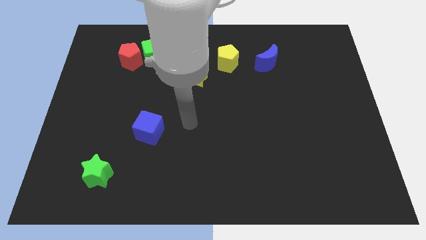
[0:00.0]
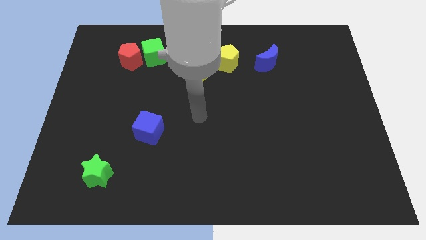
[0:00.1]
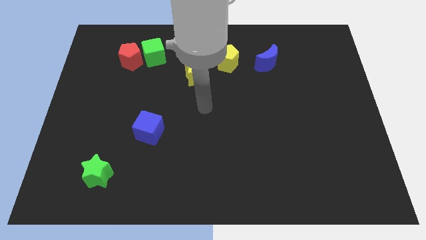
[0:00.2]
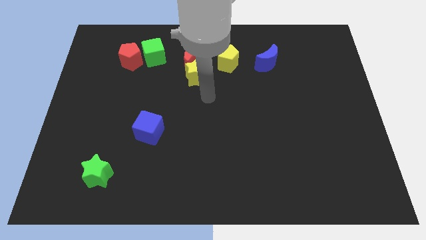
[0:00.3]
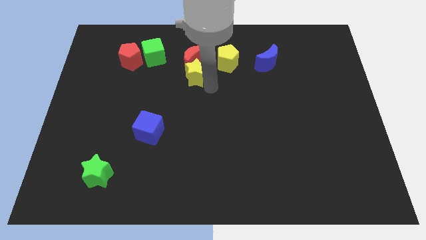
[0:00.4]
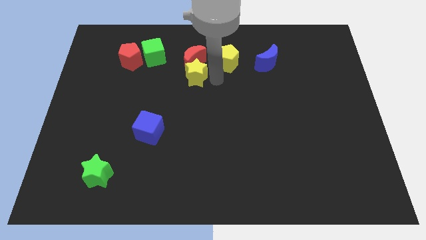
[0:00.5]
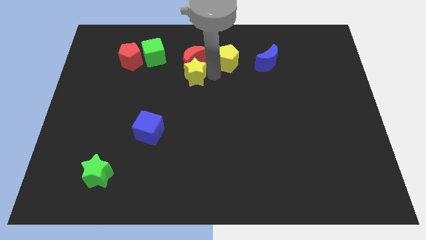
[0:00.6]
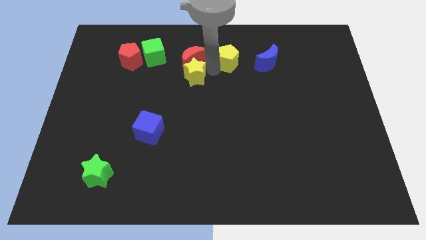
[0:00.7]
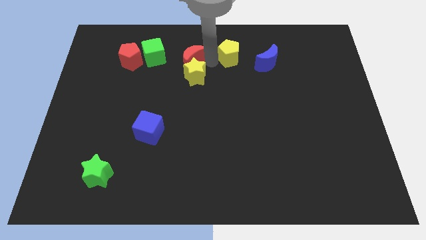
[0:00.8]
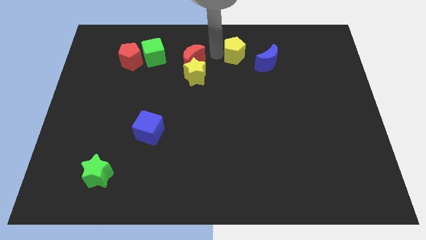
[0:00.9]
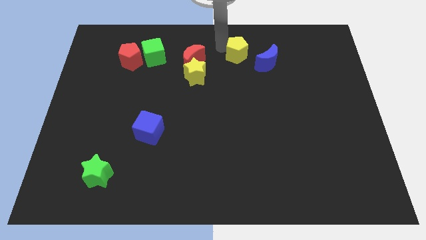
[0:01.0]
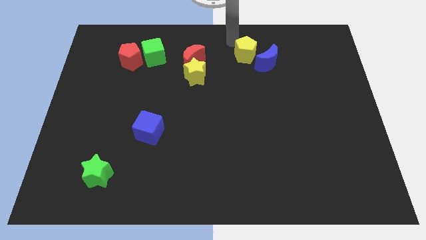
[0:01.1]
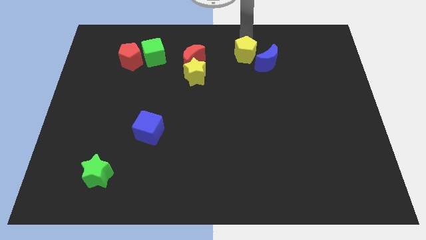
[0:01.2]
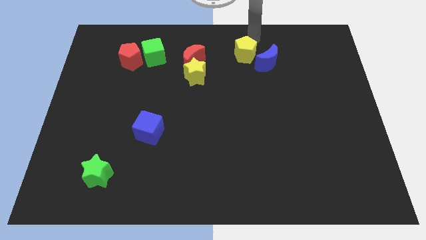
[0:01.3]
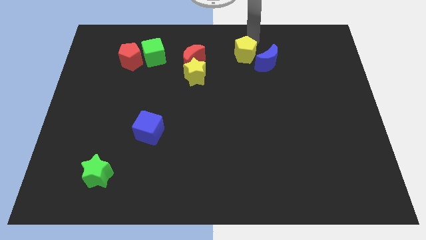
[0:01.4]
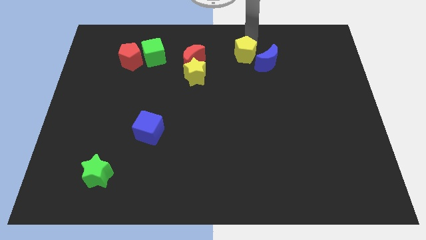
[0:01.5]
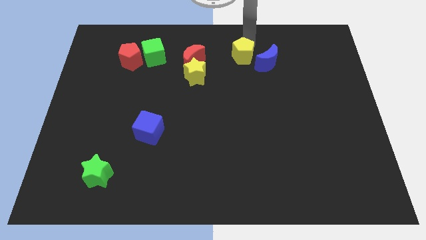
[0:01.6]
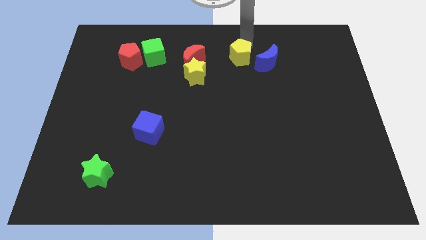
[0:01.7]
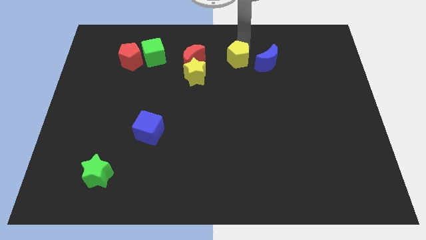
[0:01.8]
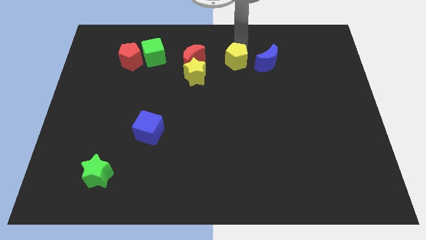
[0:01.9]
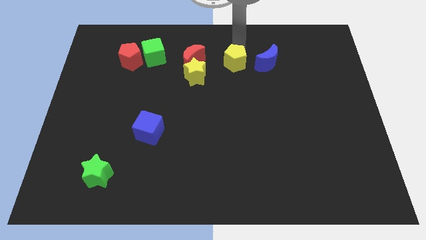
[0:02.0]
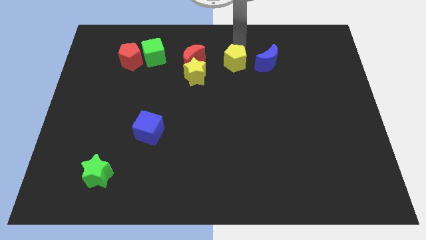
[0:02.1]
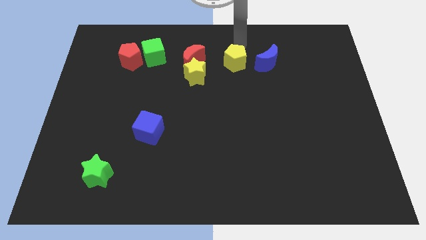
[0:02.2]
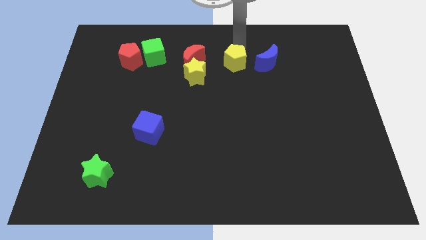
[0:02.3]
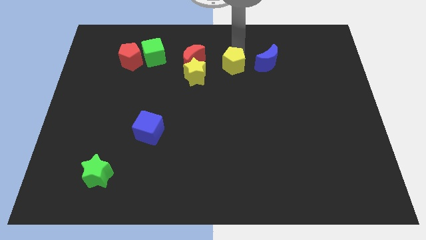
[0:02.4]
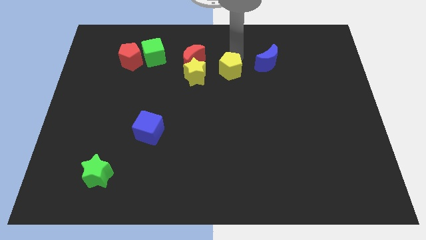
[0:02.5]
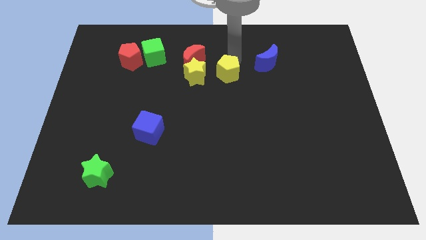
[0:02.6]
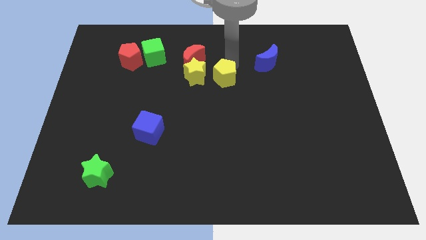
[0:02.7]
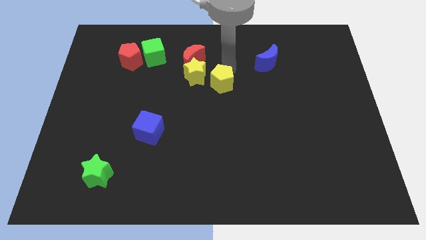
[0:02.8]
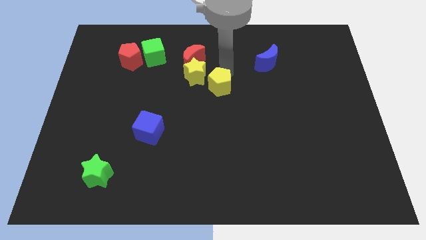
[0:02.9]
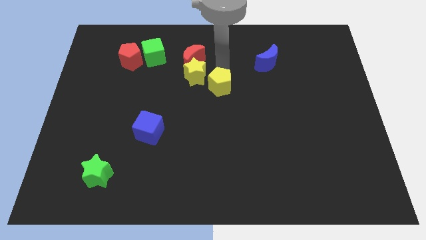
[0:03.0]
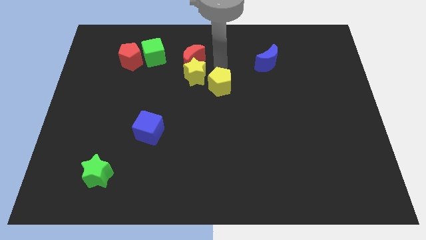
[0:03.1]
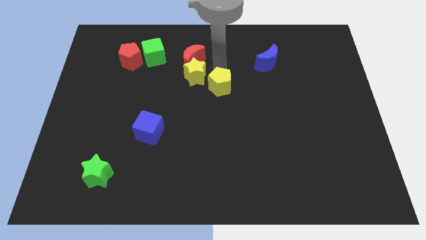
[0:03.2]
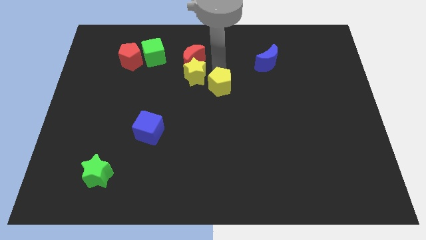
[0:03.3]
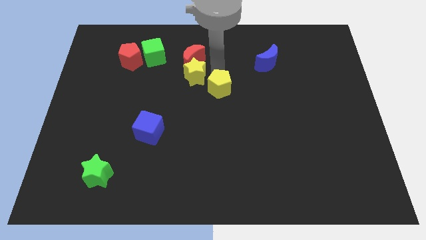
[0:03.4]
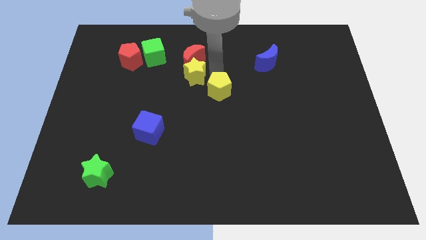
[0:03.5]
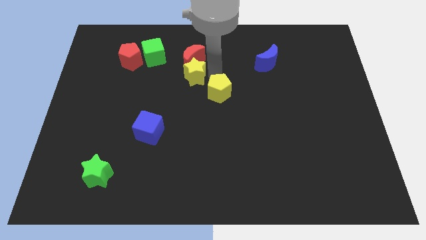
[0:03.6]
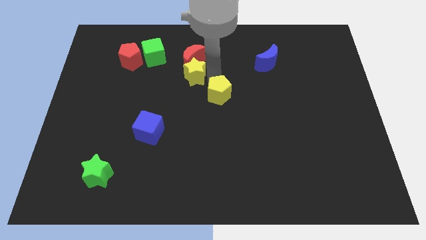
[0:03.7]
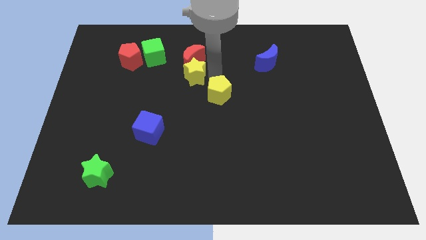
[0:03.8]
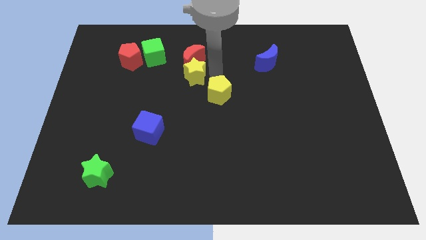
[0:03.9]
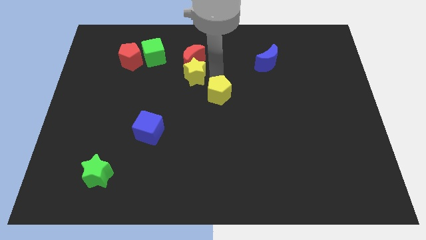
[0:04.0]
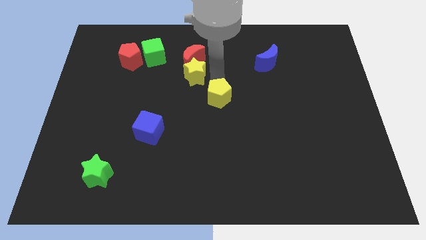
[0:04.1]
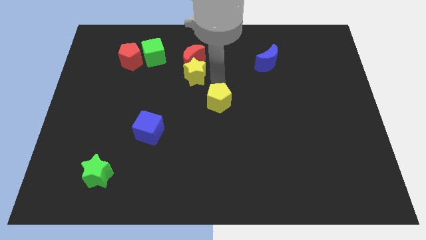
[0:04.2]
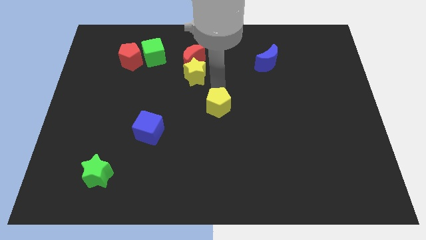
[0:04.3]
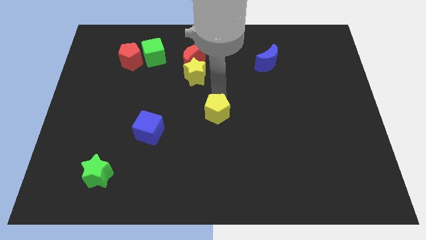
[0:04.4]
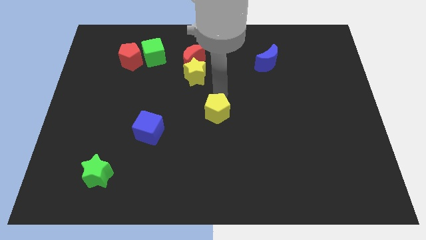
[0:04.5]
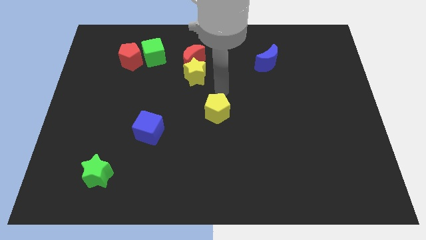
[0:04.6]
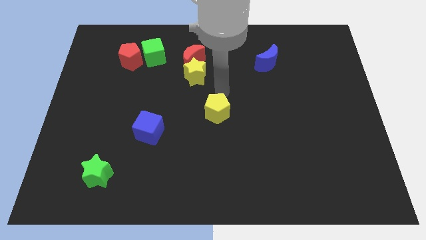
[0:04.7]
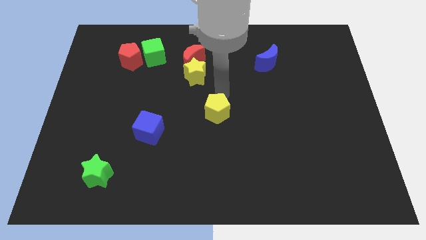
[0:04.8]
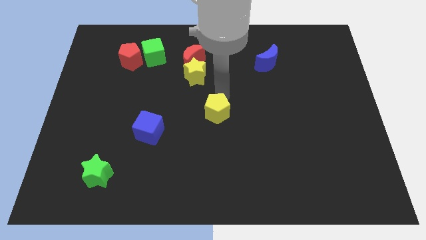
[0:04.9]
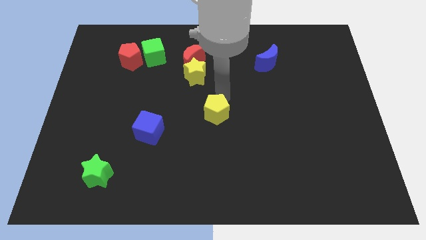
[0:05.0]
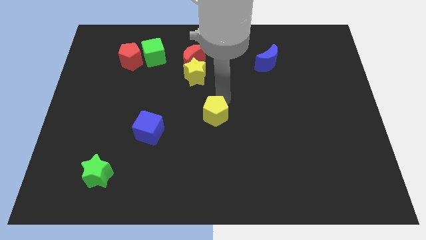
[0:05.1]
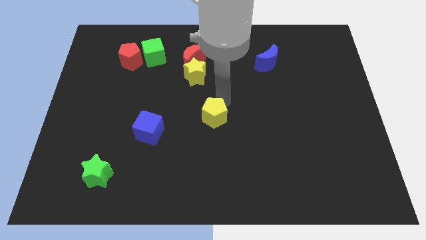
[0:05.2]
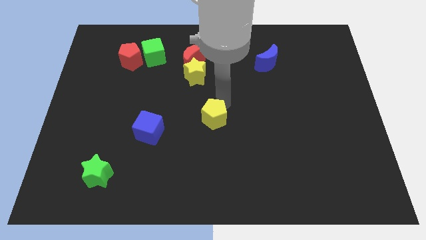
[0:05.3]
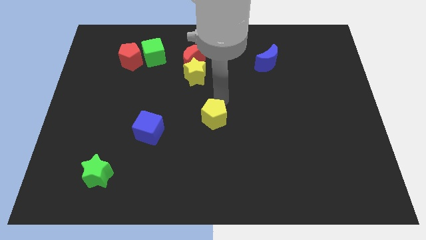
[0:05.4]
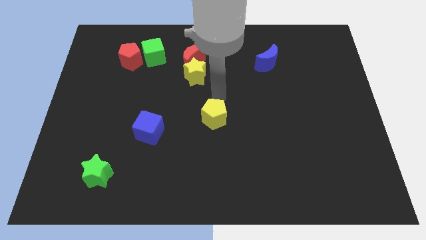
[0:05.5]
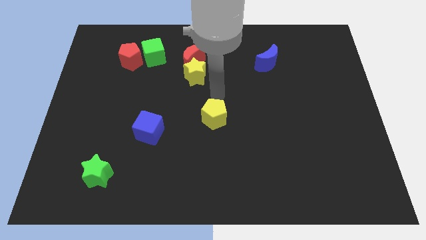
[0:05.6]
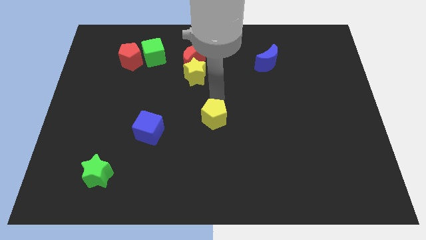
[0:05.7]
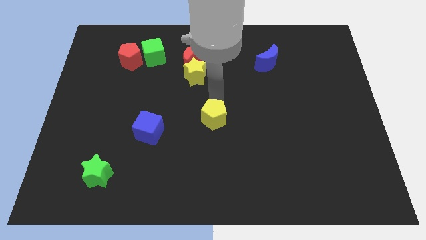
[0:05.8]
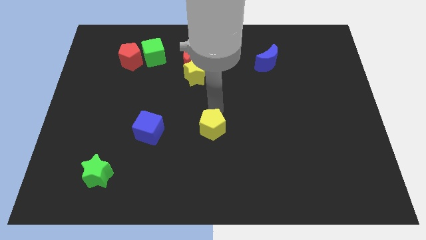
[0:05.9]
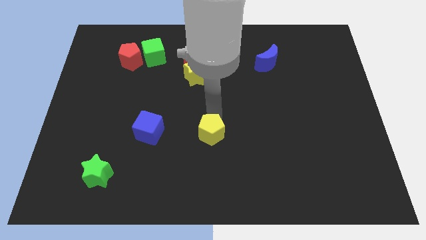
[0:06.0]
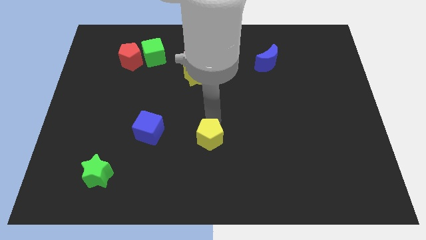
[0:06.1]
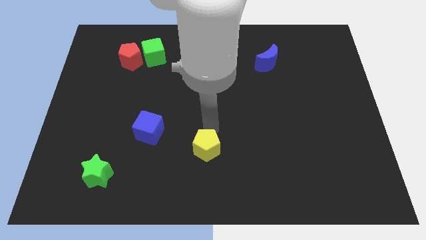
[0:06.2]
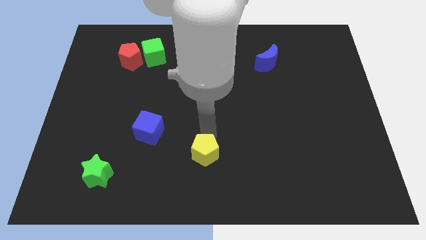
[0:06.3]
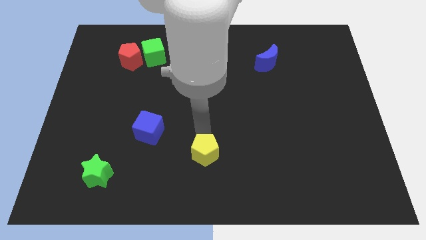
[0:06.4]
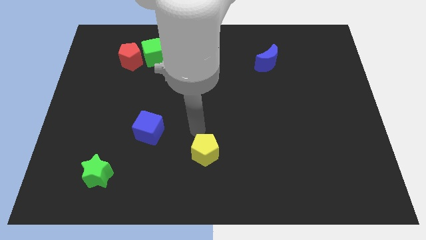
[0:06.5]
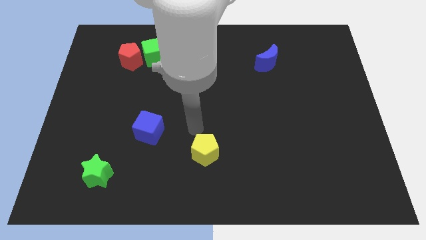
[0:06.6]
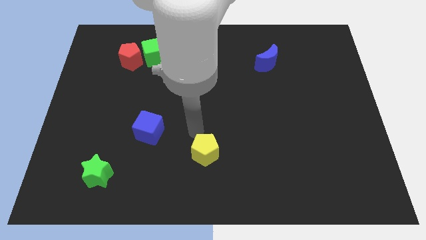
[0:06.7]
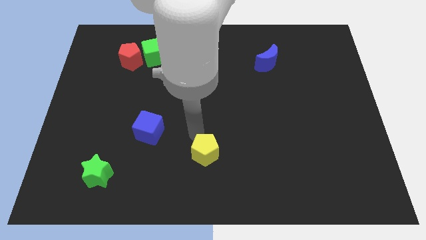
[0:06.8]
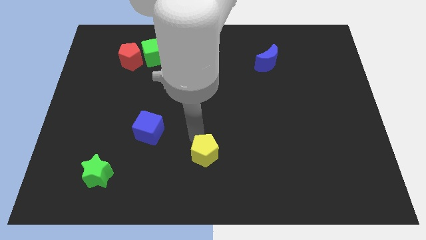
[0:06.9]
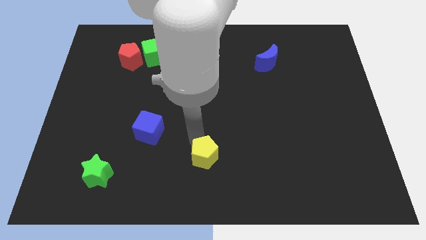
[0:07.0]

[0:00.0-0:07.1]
put the yellow pentagon to the bottom

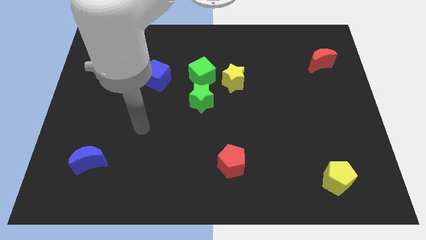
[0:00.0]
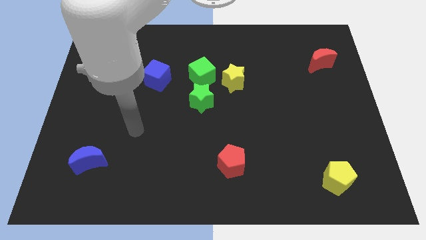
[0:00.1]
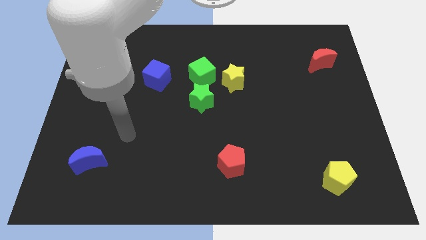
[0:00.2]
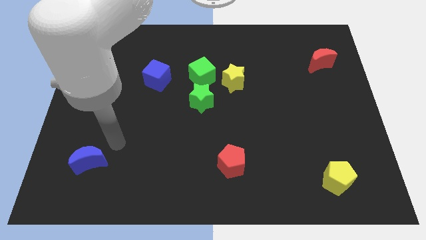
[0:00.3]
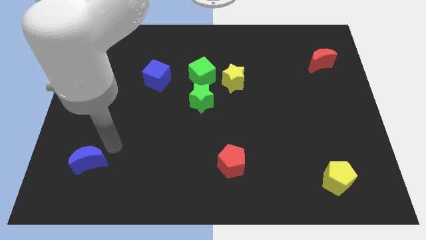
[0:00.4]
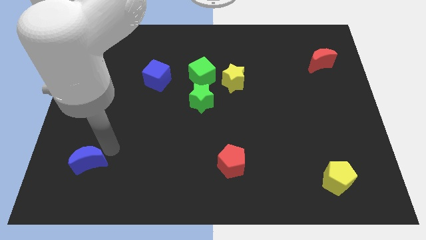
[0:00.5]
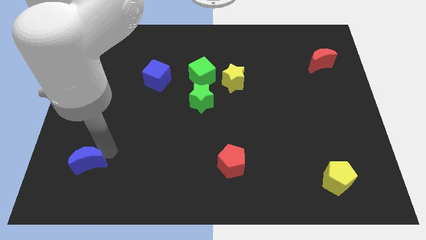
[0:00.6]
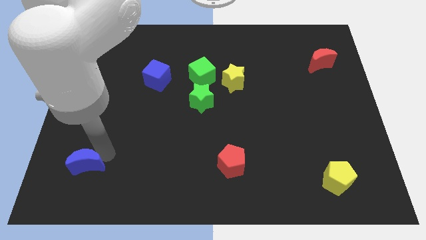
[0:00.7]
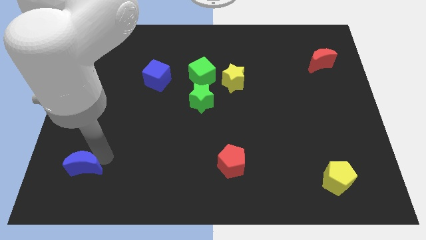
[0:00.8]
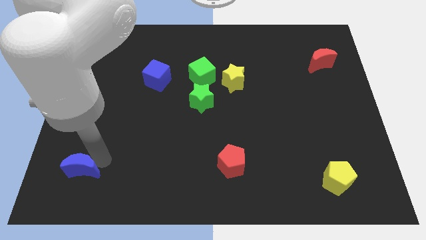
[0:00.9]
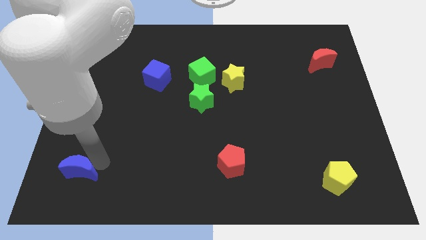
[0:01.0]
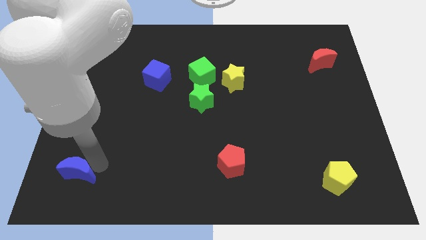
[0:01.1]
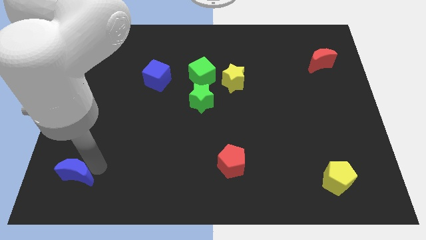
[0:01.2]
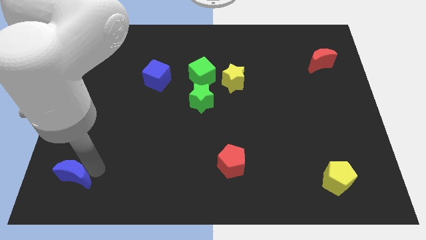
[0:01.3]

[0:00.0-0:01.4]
slide the blue moon to the bottom left of the board
